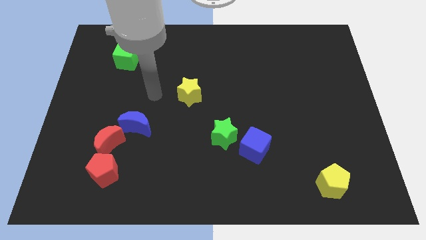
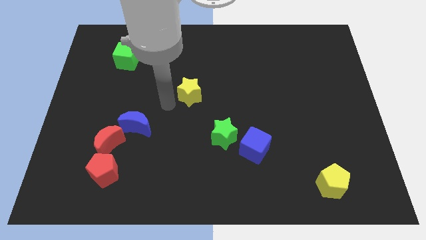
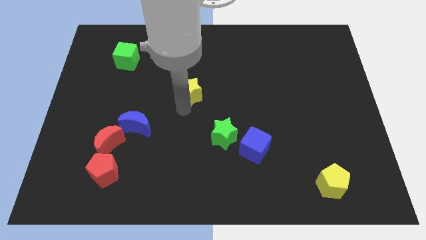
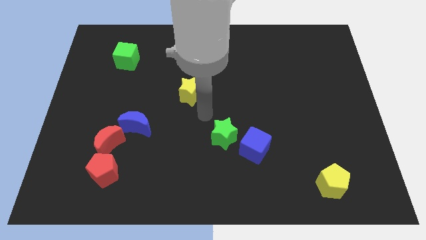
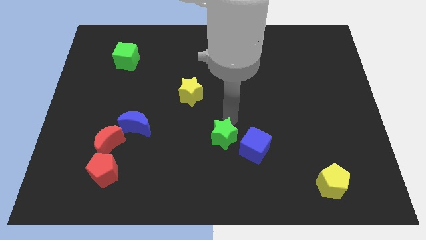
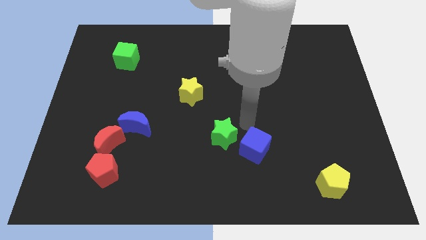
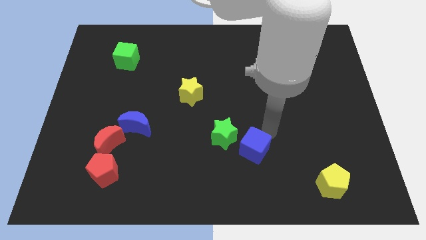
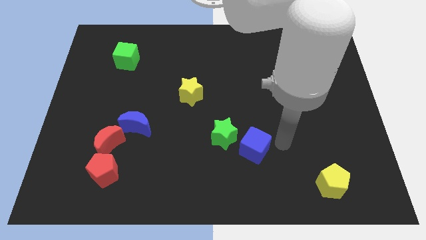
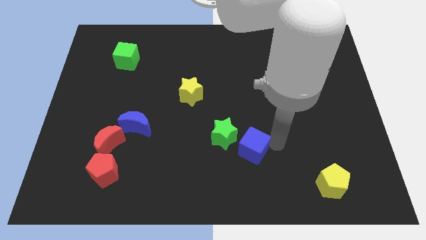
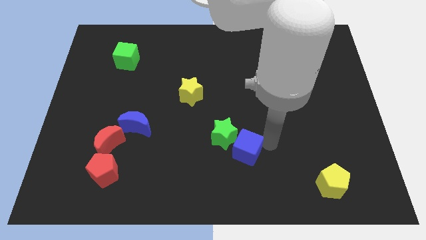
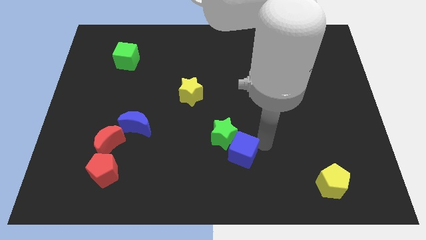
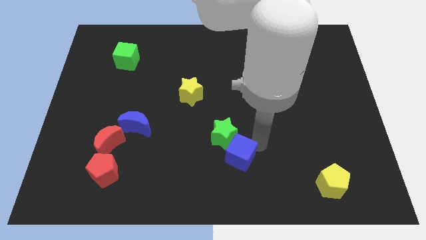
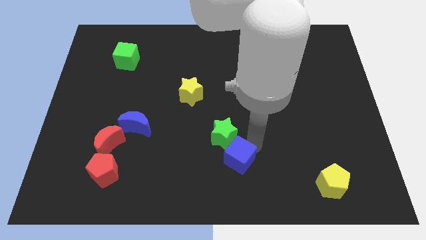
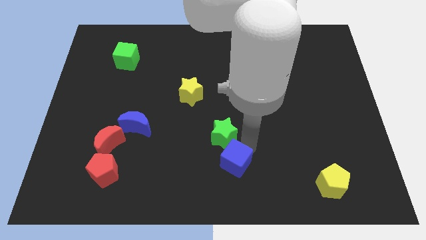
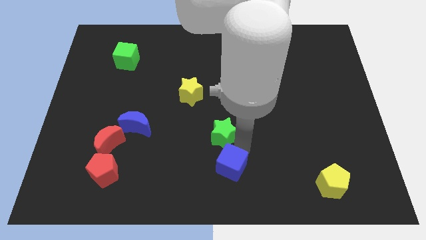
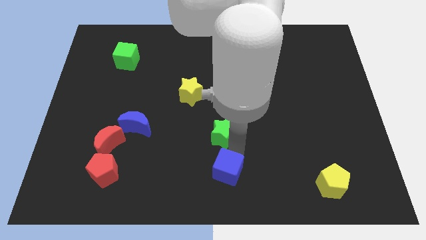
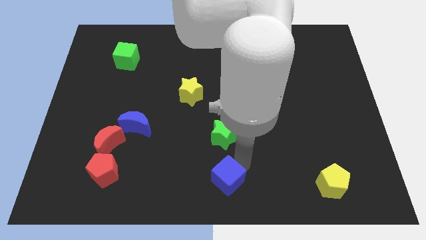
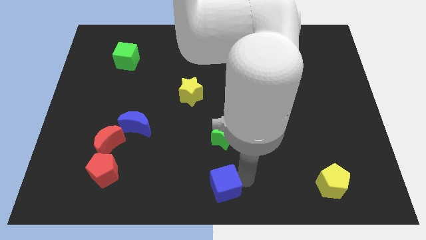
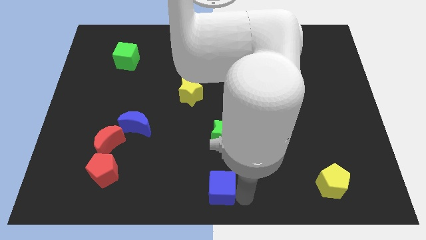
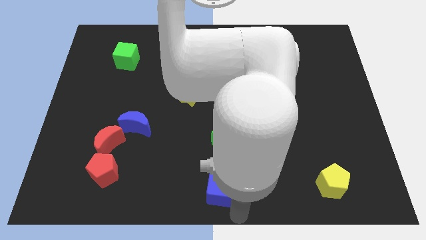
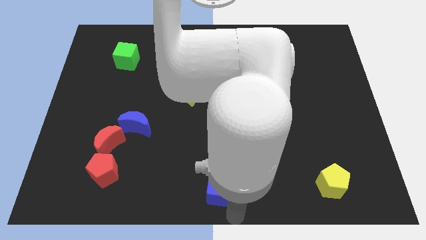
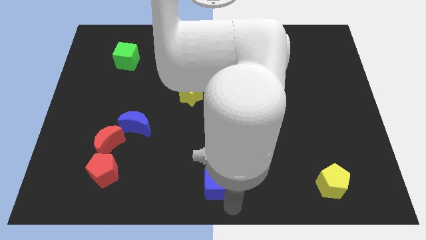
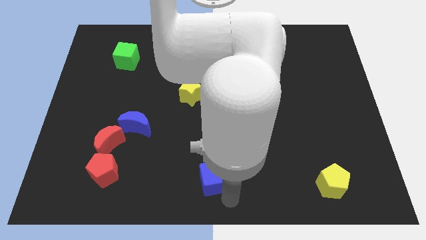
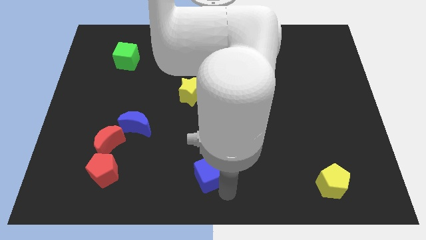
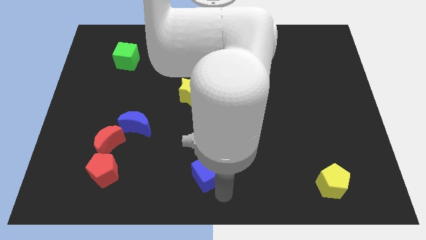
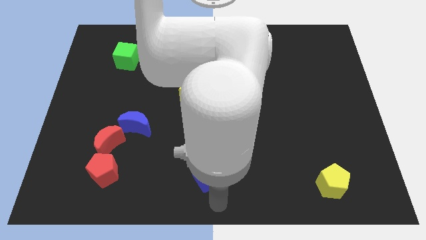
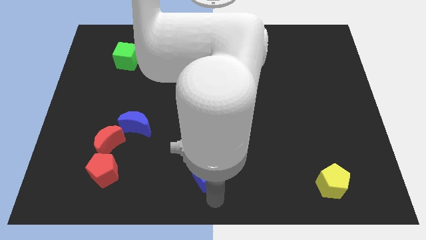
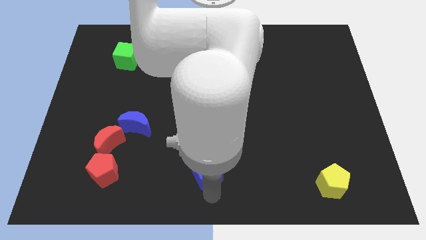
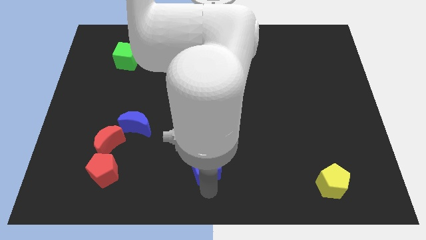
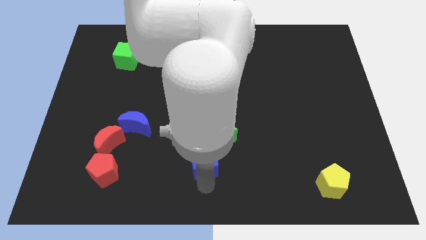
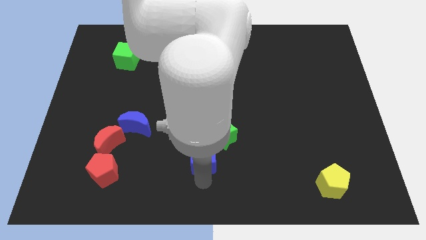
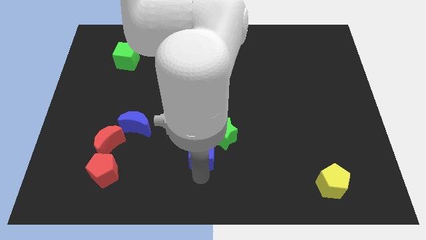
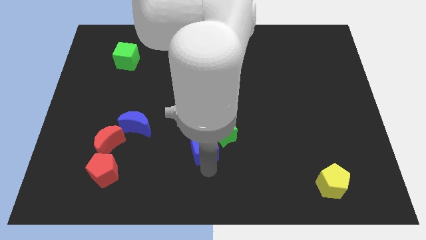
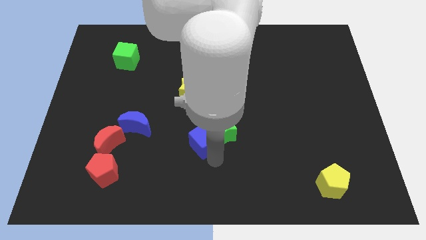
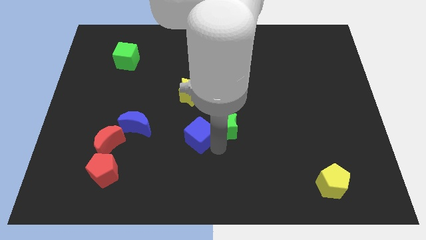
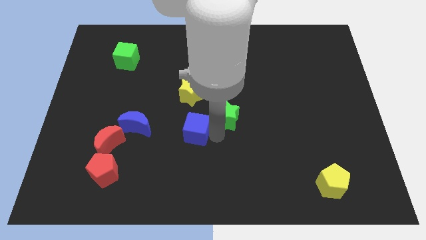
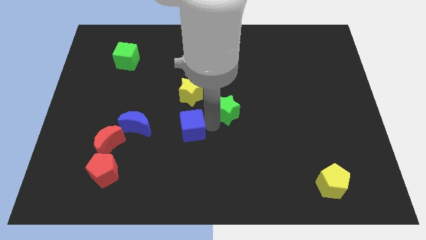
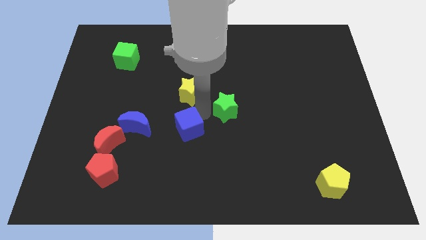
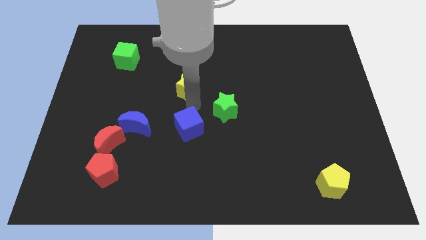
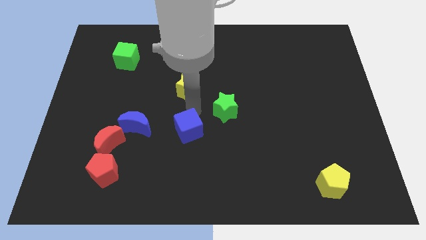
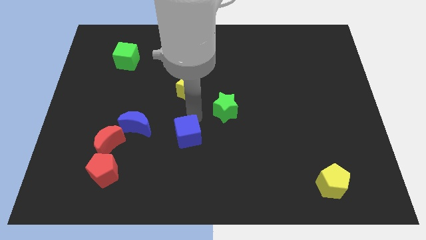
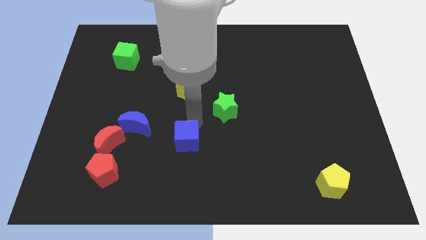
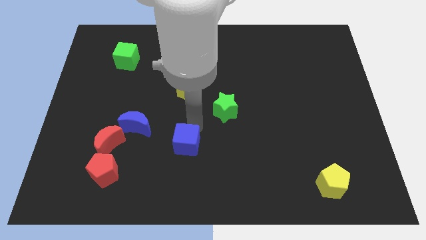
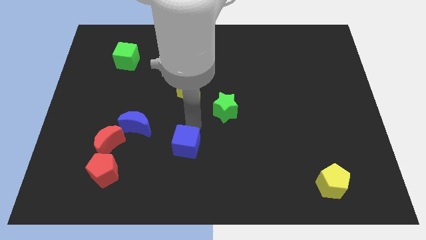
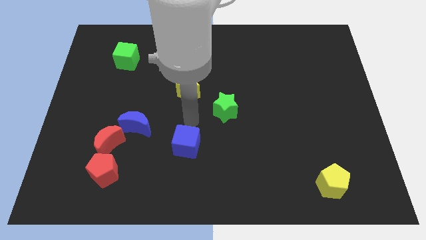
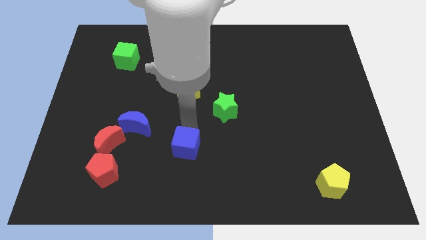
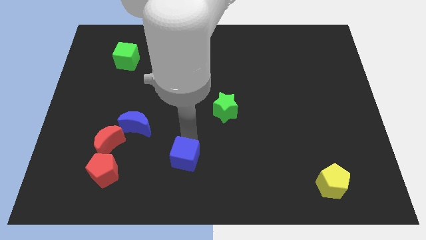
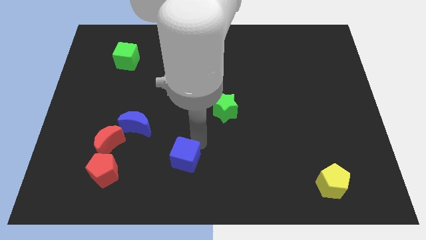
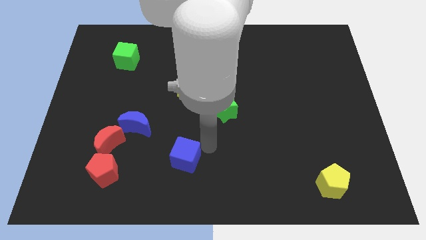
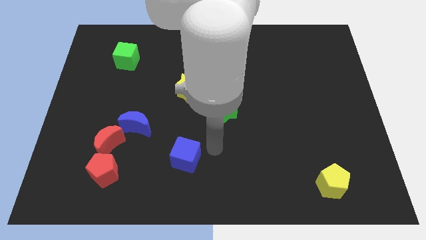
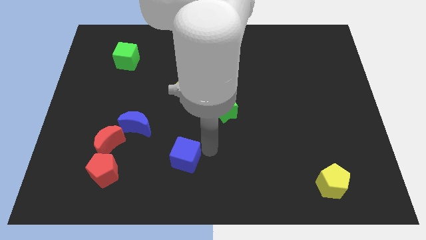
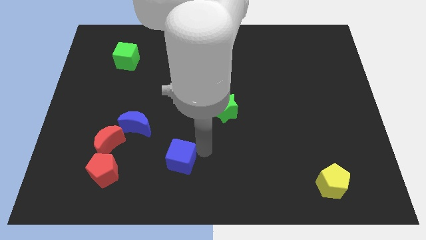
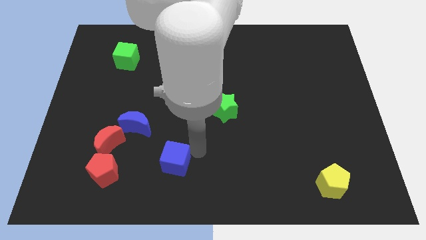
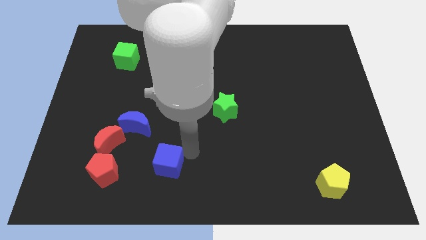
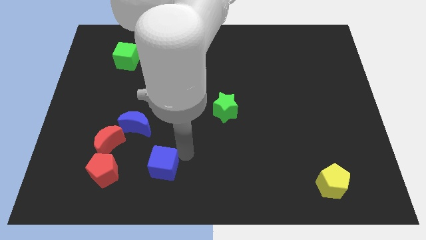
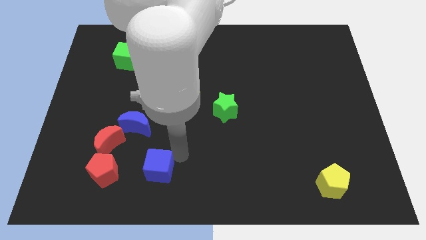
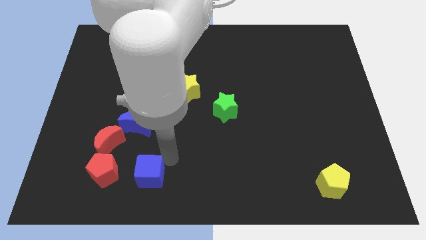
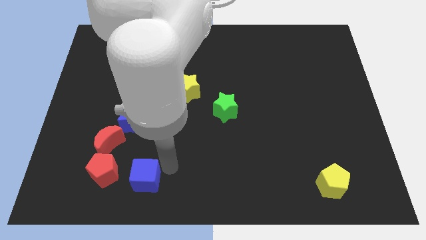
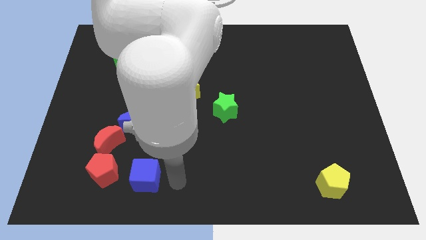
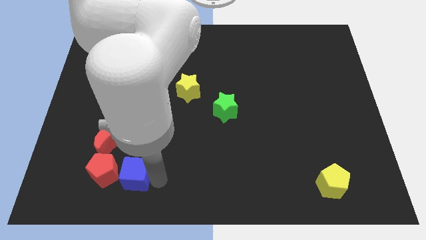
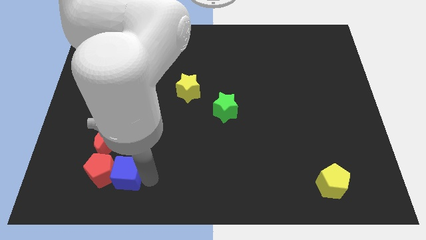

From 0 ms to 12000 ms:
push the blue cube next to the red pentagon
